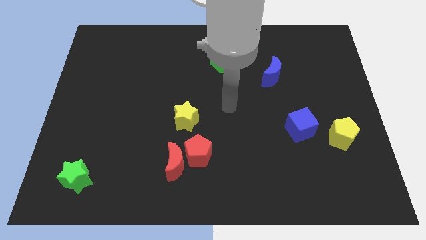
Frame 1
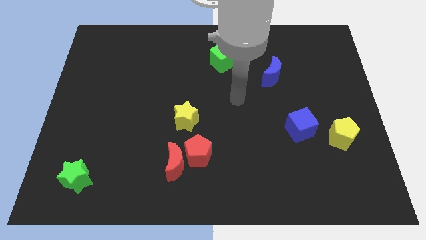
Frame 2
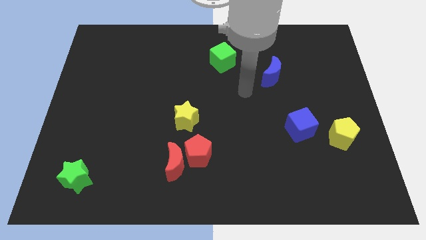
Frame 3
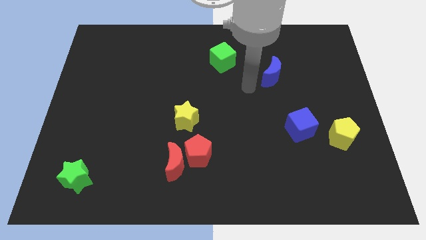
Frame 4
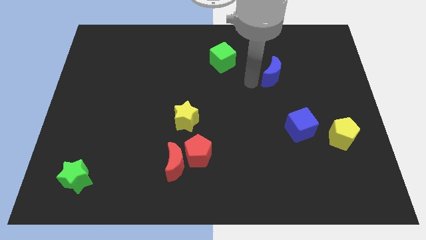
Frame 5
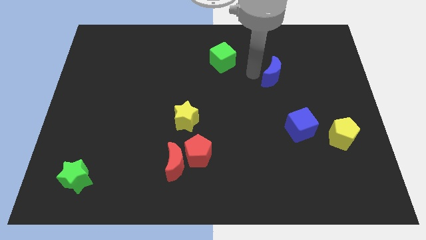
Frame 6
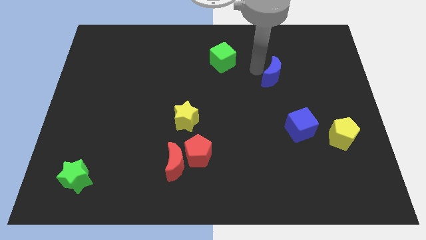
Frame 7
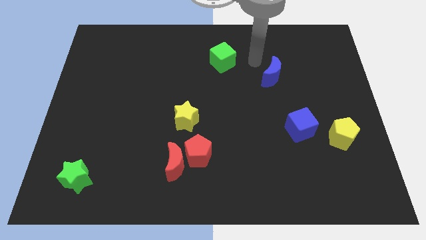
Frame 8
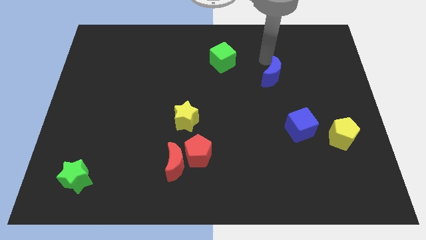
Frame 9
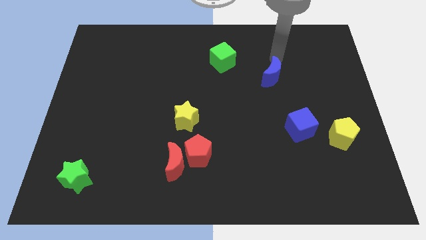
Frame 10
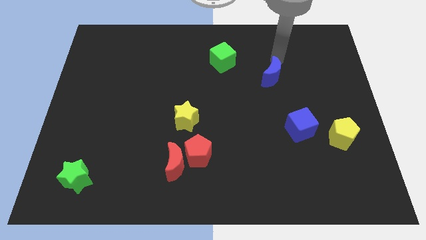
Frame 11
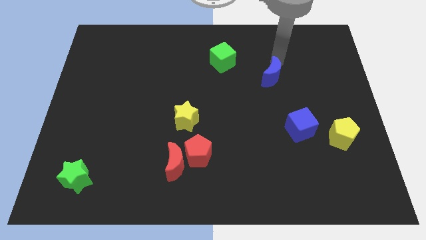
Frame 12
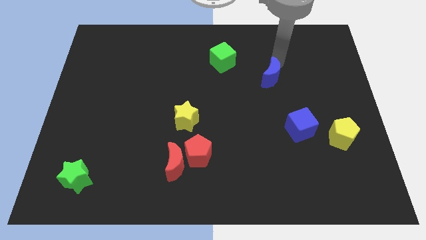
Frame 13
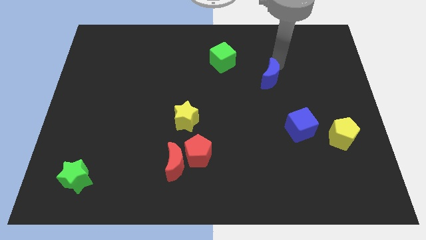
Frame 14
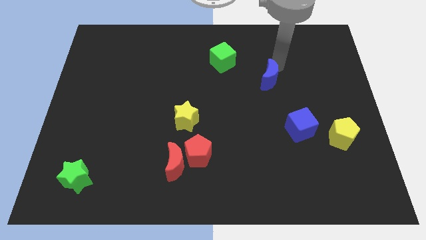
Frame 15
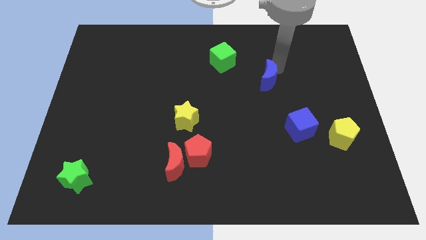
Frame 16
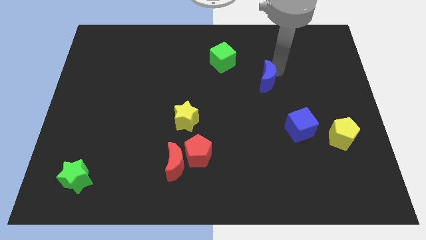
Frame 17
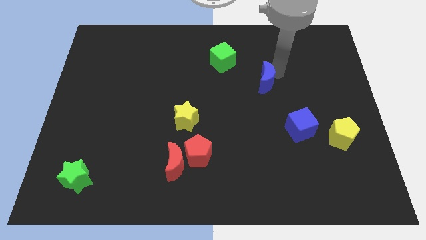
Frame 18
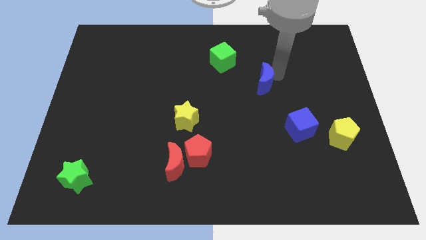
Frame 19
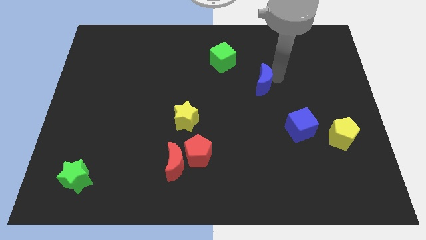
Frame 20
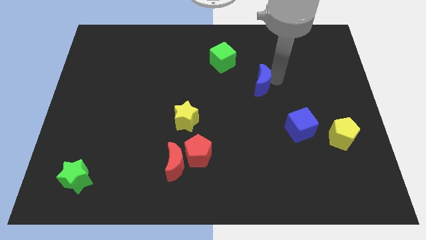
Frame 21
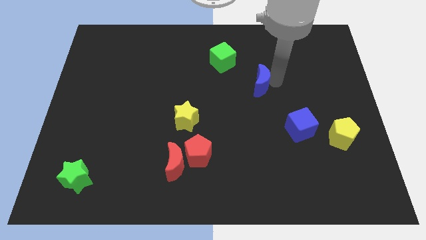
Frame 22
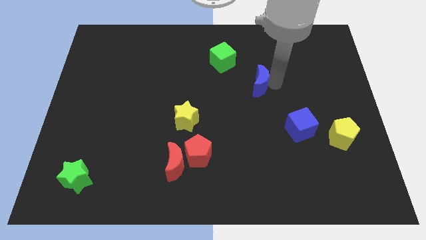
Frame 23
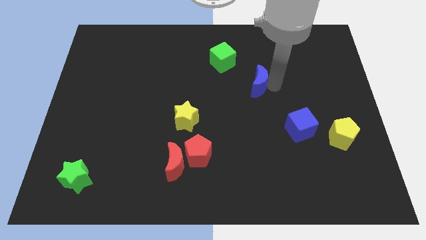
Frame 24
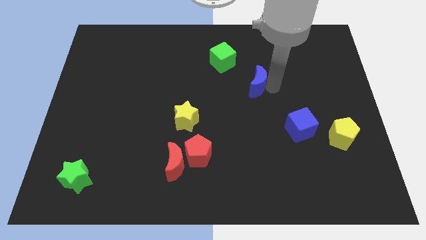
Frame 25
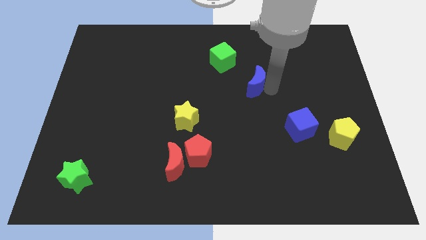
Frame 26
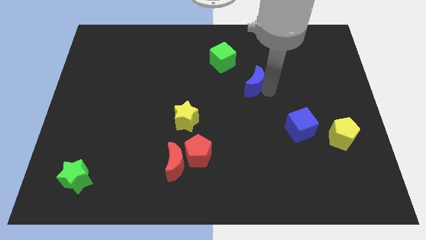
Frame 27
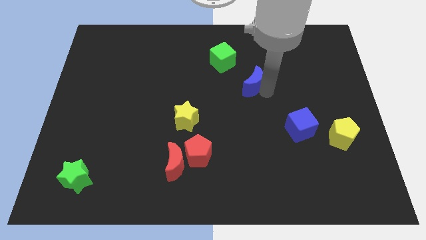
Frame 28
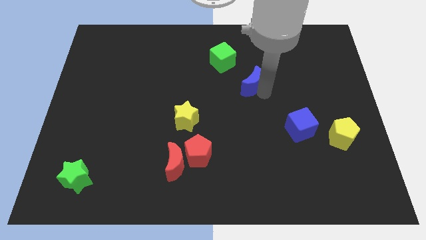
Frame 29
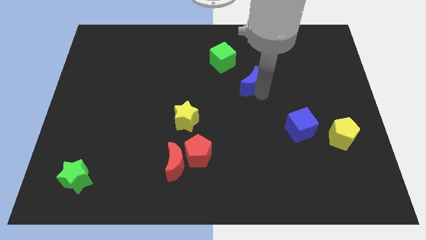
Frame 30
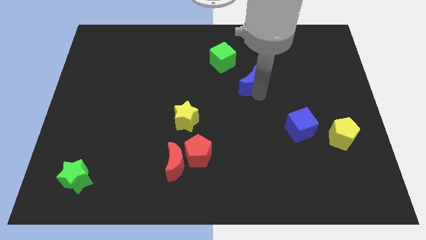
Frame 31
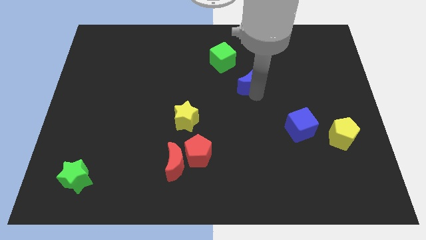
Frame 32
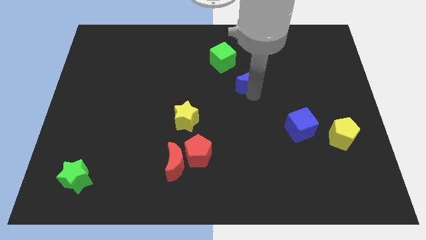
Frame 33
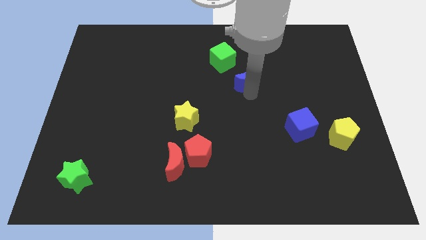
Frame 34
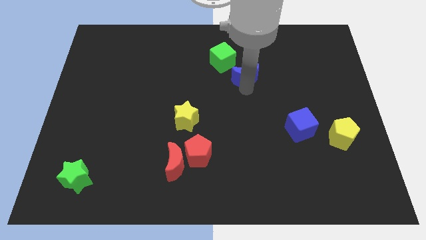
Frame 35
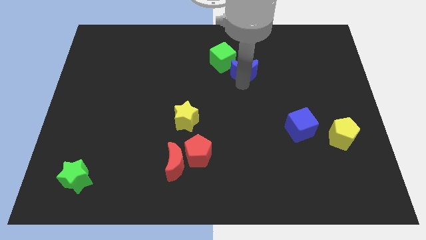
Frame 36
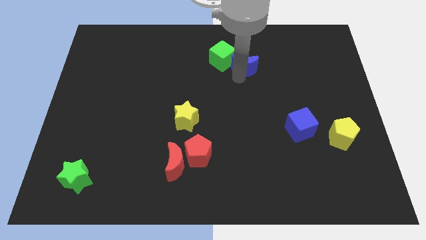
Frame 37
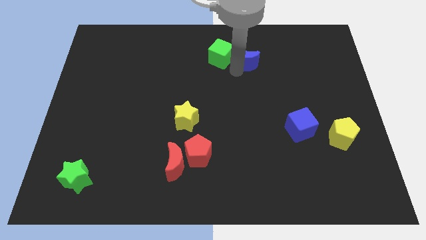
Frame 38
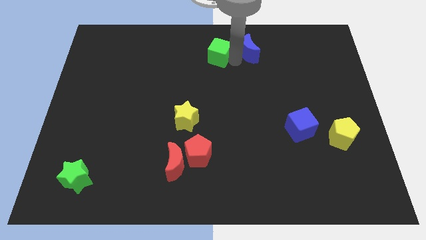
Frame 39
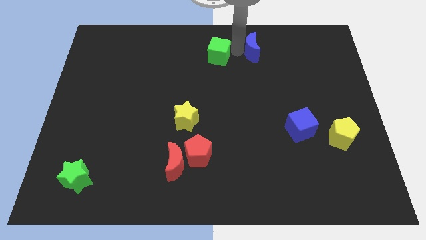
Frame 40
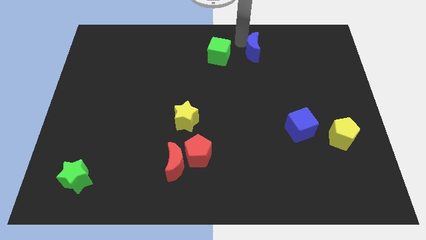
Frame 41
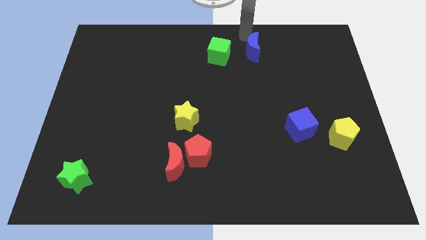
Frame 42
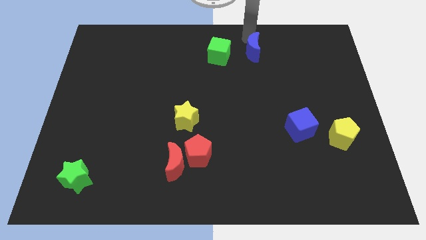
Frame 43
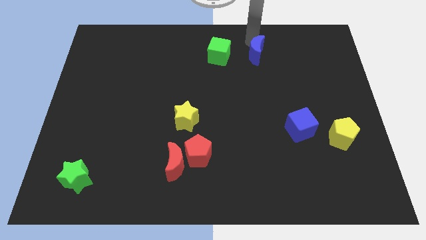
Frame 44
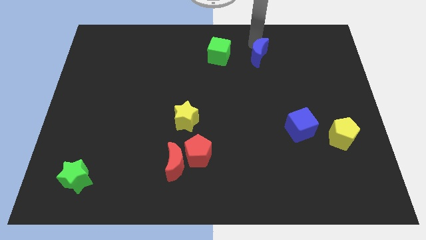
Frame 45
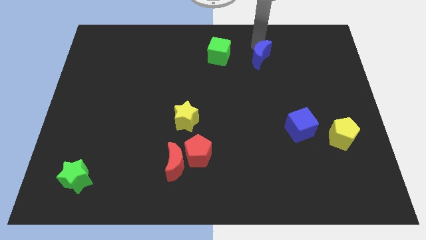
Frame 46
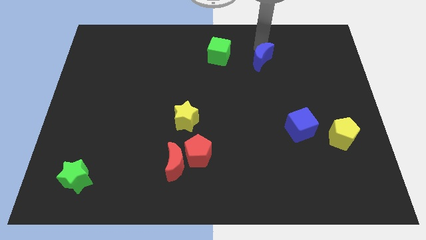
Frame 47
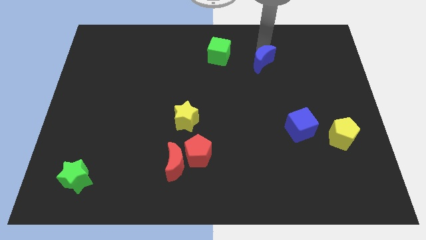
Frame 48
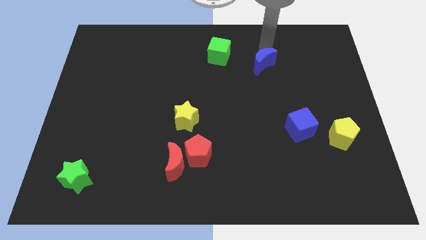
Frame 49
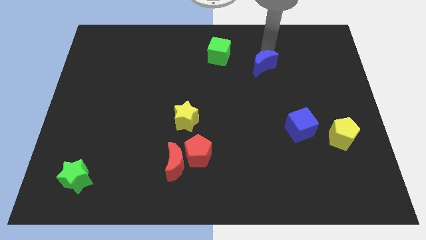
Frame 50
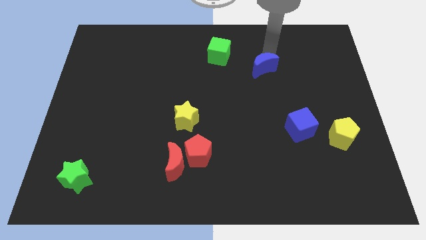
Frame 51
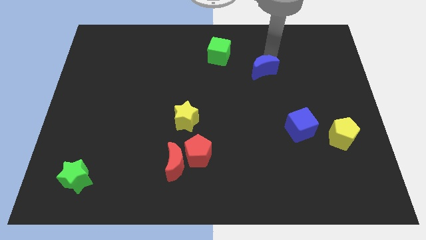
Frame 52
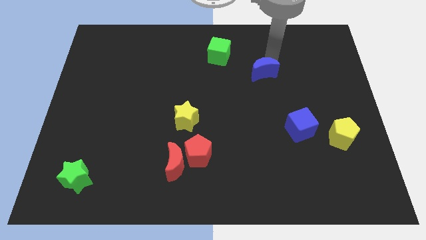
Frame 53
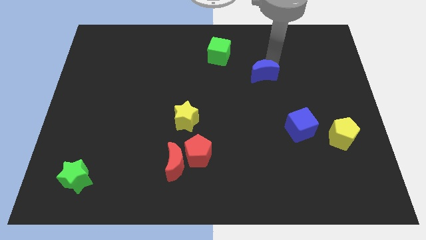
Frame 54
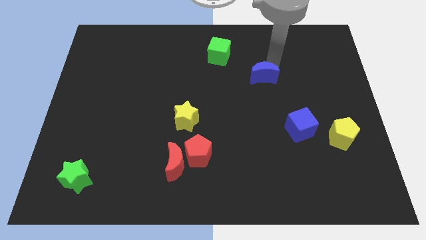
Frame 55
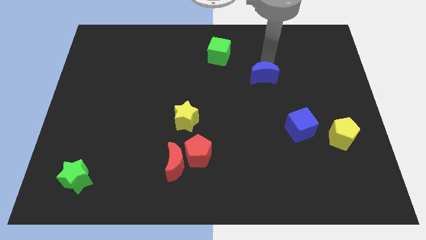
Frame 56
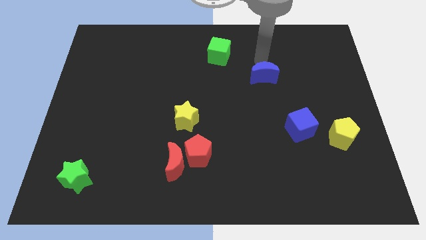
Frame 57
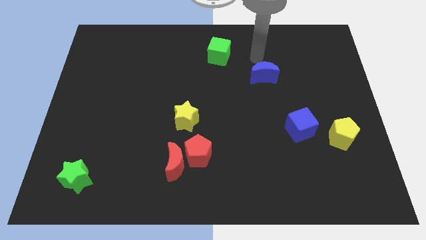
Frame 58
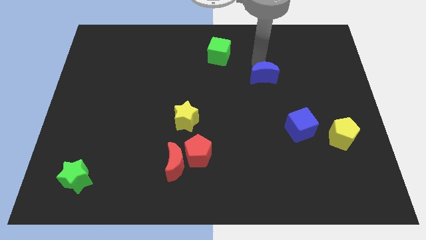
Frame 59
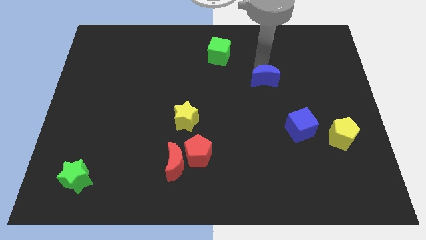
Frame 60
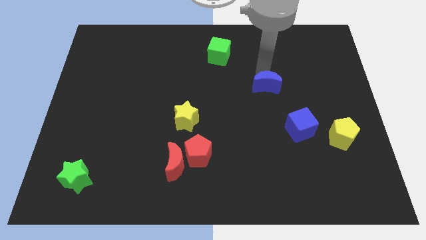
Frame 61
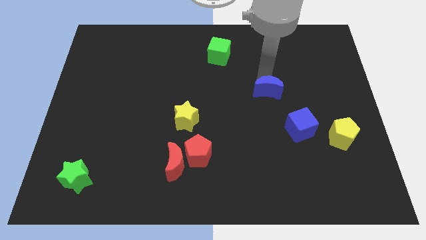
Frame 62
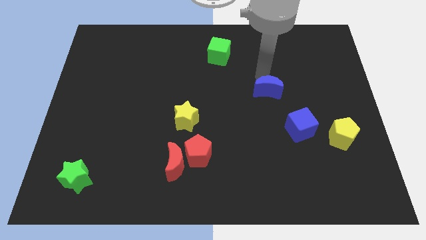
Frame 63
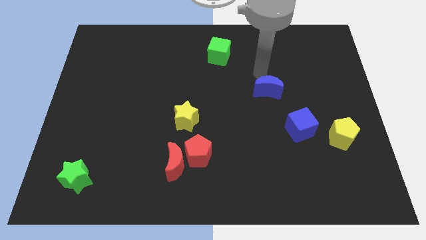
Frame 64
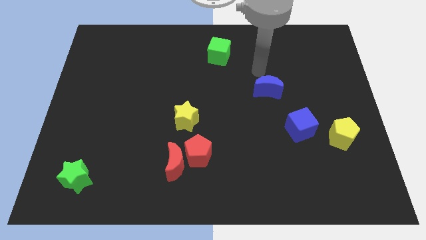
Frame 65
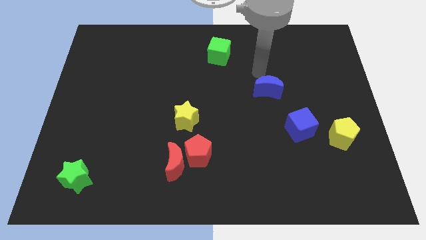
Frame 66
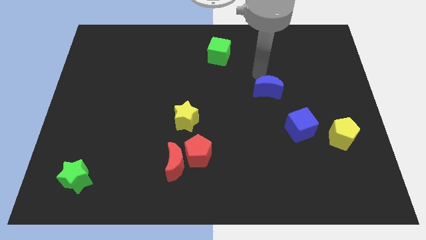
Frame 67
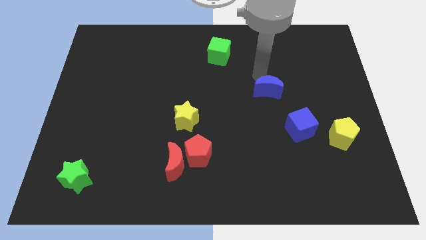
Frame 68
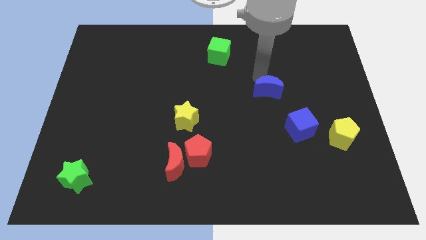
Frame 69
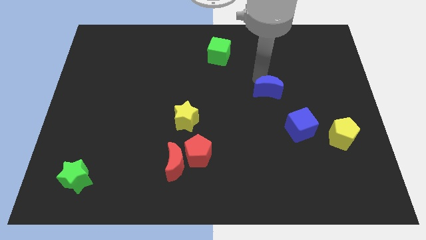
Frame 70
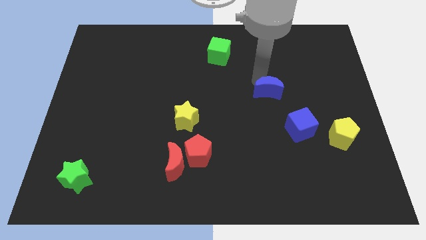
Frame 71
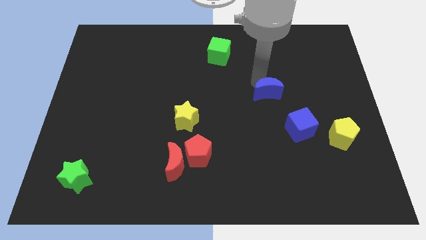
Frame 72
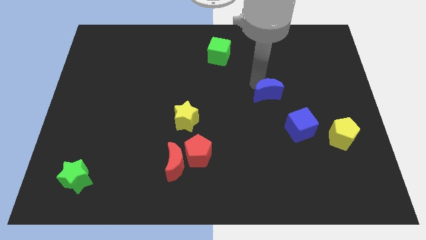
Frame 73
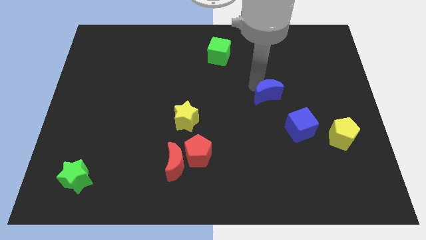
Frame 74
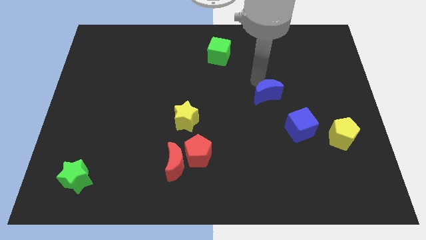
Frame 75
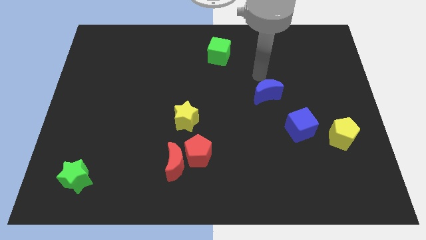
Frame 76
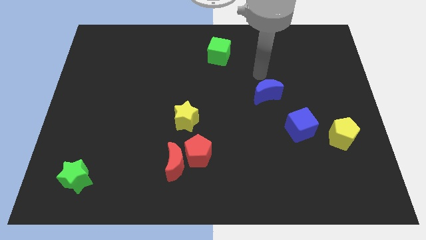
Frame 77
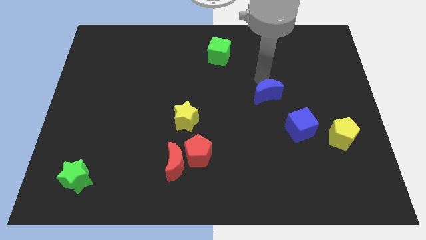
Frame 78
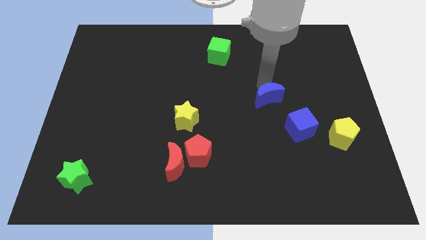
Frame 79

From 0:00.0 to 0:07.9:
push the blue moon down a bit

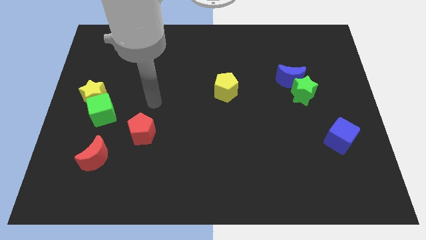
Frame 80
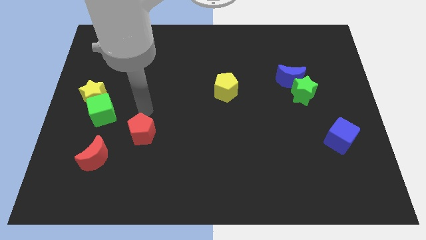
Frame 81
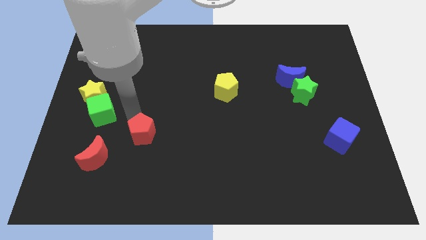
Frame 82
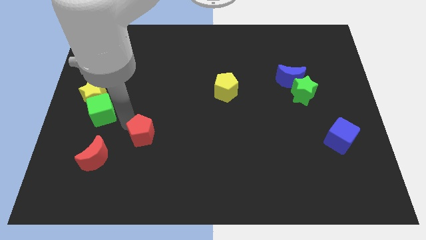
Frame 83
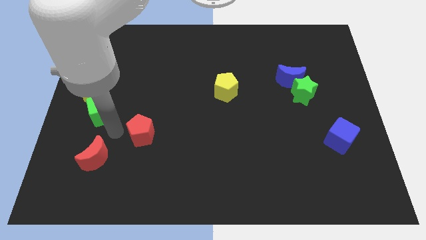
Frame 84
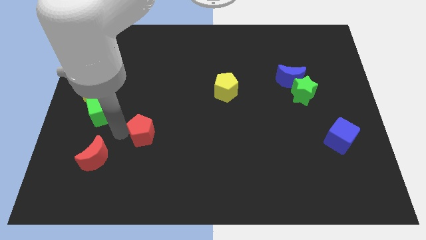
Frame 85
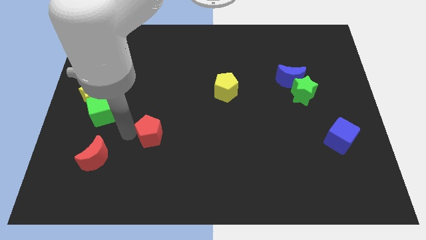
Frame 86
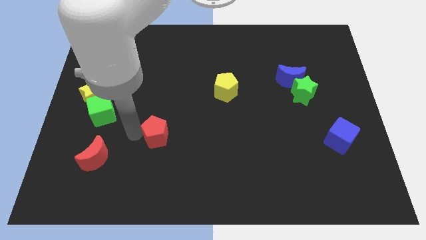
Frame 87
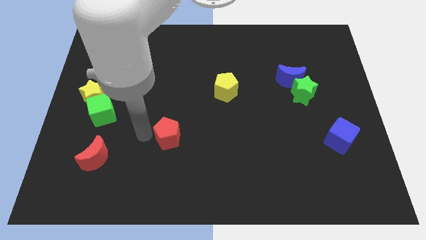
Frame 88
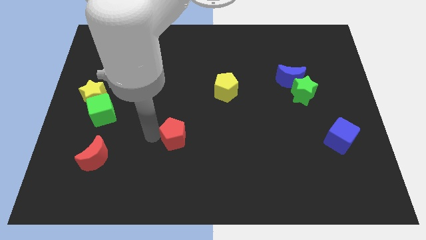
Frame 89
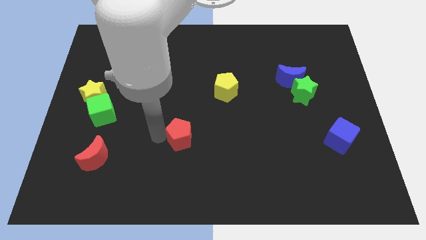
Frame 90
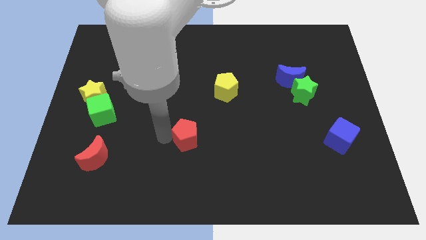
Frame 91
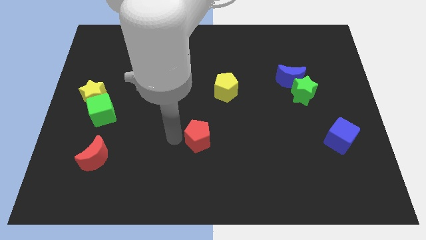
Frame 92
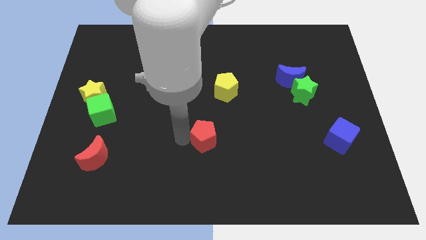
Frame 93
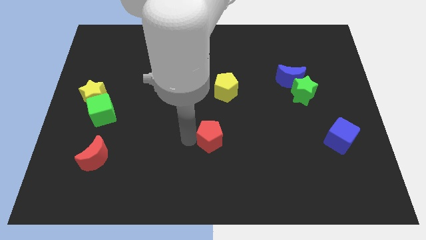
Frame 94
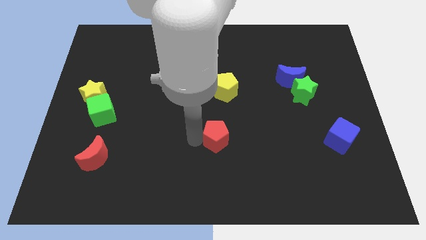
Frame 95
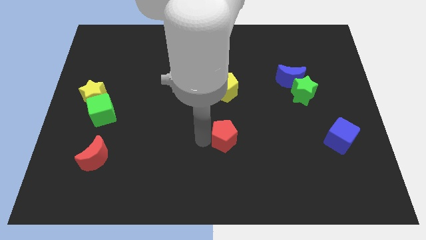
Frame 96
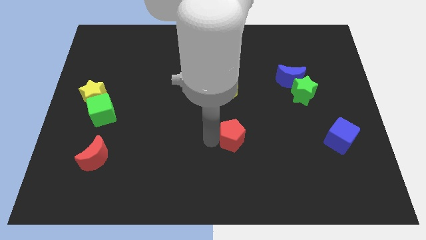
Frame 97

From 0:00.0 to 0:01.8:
move the red pentagon right
